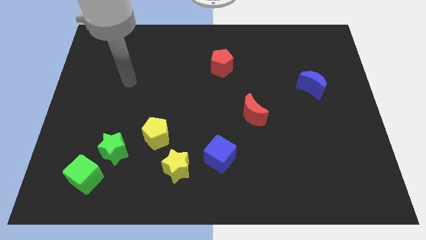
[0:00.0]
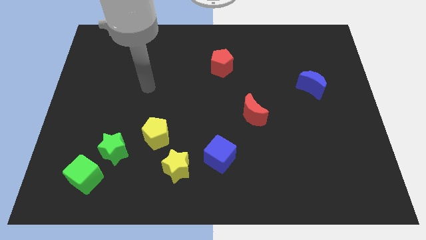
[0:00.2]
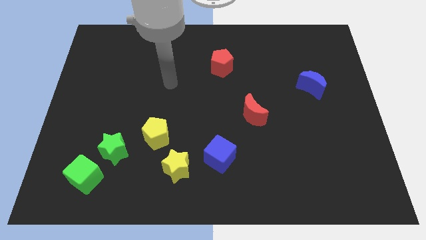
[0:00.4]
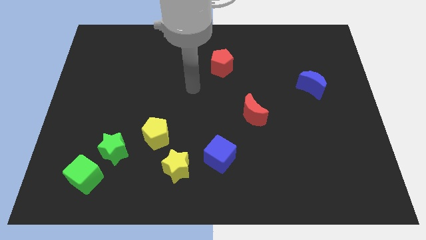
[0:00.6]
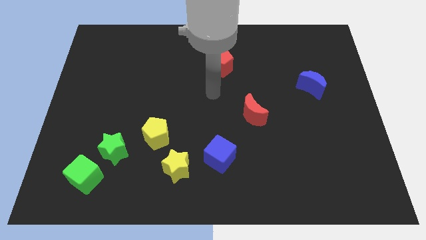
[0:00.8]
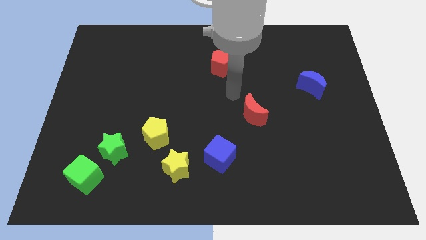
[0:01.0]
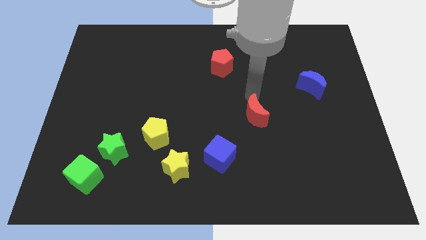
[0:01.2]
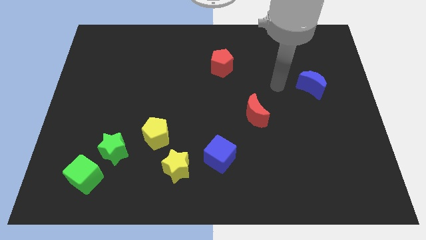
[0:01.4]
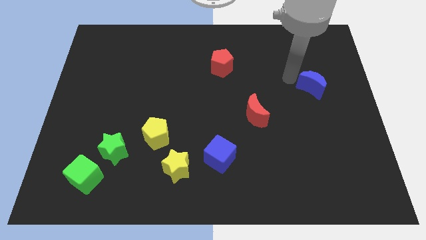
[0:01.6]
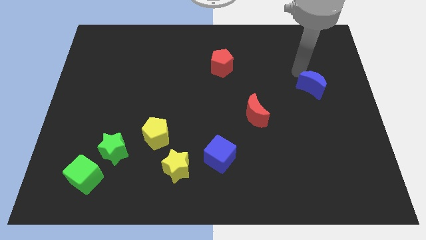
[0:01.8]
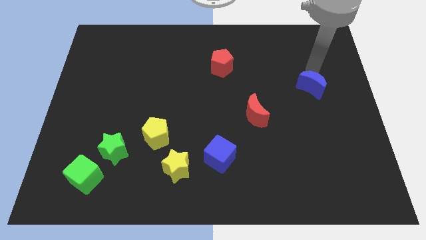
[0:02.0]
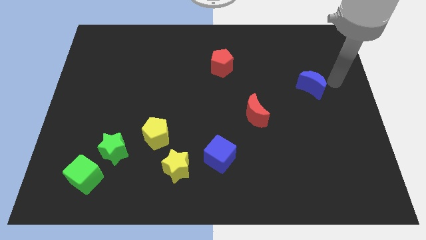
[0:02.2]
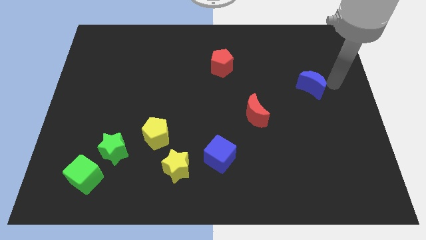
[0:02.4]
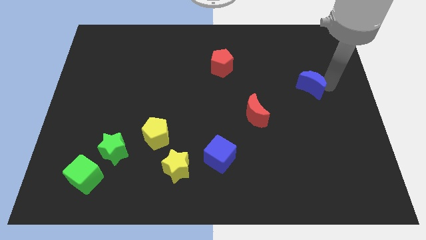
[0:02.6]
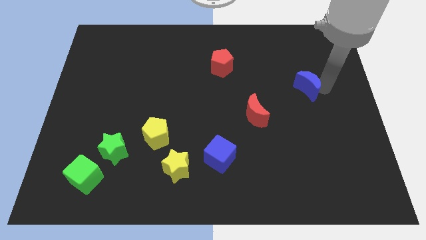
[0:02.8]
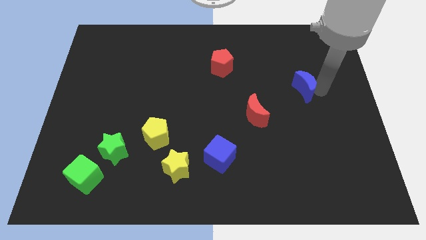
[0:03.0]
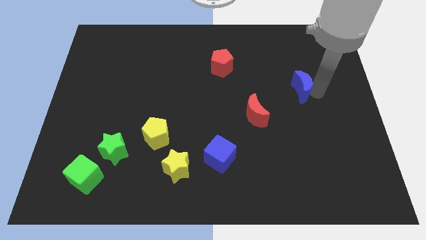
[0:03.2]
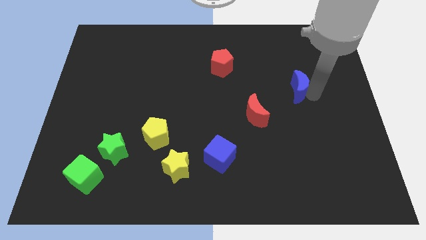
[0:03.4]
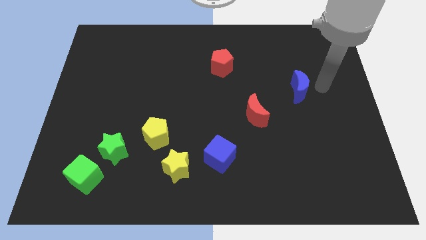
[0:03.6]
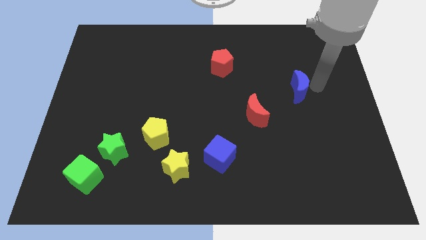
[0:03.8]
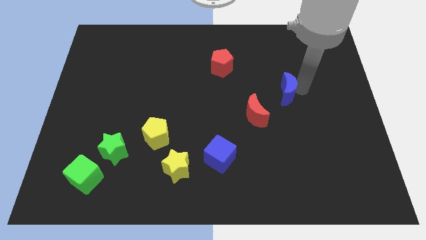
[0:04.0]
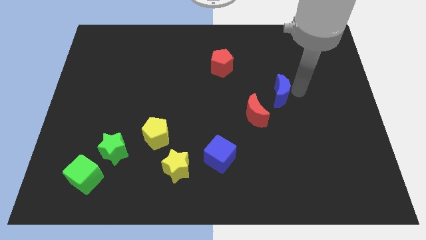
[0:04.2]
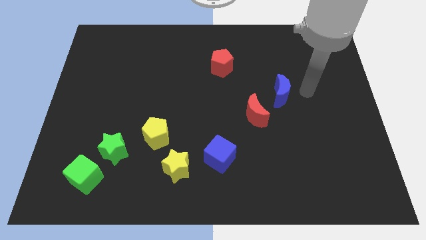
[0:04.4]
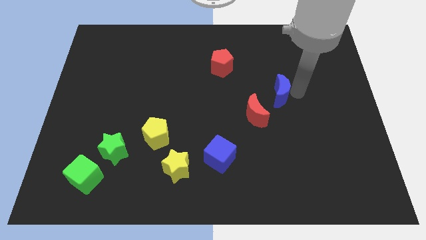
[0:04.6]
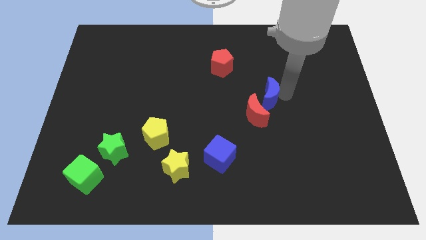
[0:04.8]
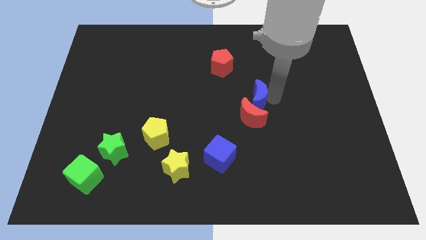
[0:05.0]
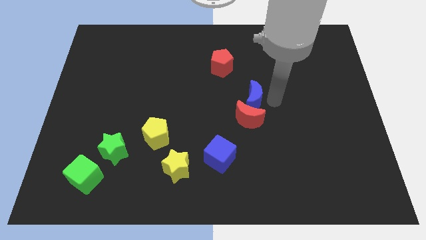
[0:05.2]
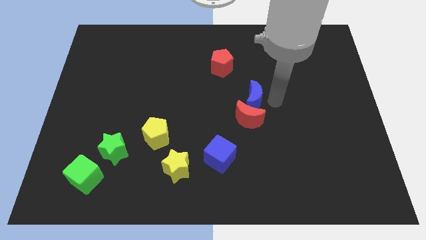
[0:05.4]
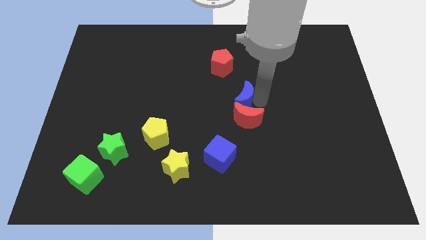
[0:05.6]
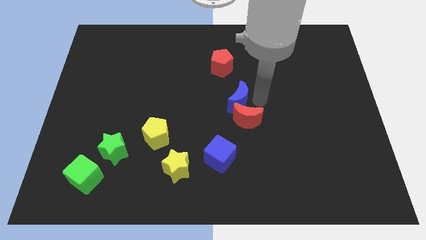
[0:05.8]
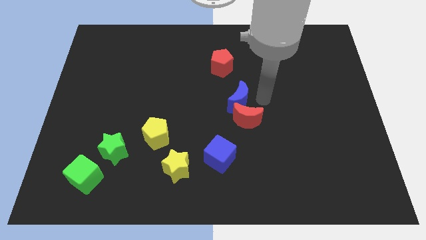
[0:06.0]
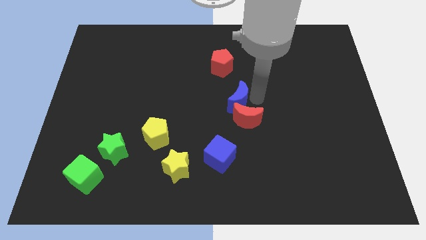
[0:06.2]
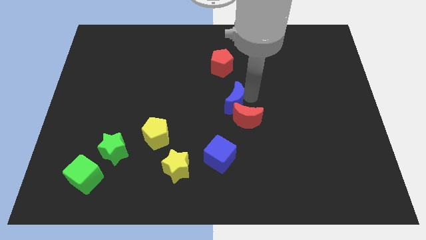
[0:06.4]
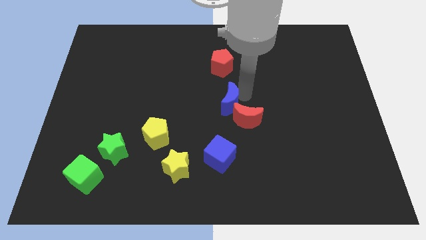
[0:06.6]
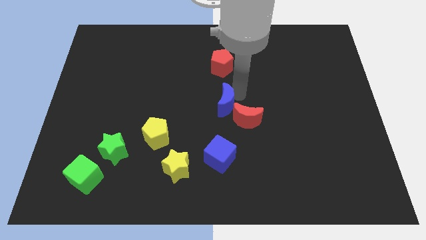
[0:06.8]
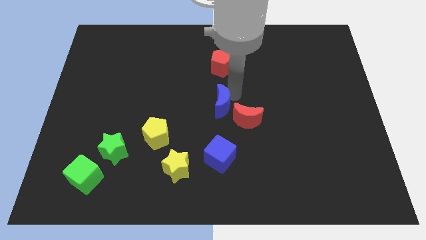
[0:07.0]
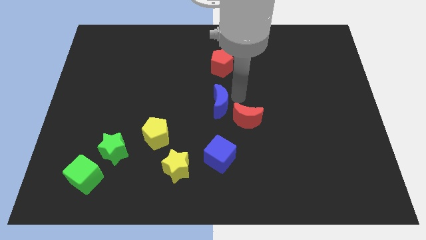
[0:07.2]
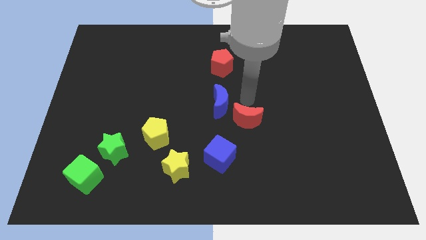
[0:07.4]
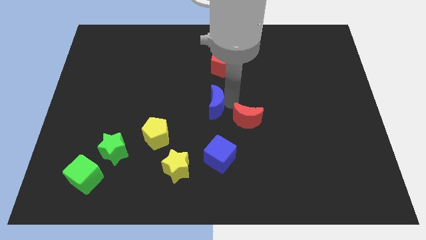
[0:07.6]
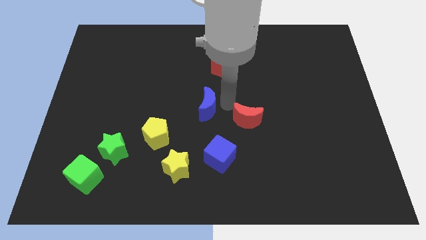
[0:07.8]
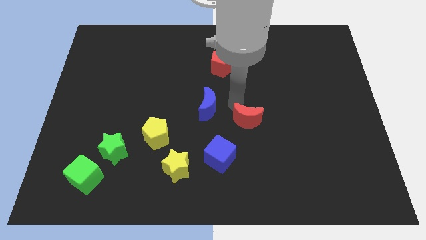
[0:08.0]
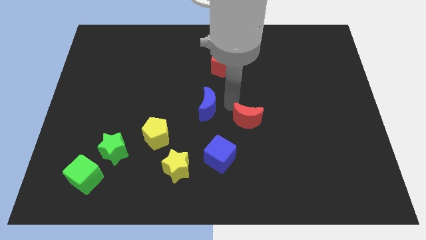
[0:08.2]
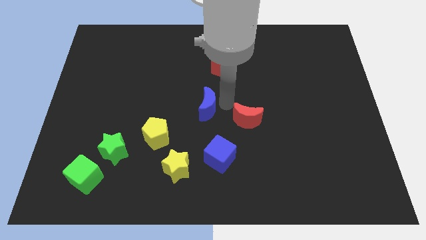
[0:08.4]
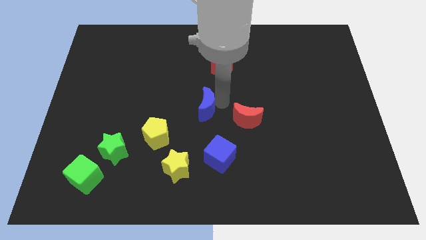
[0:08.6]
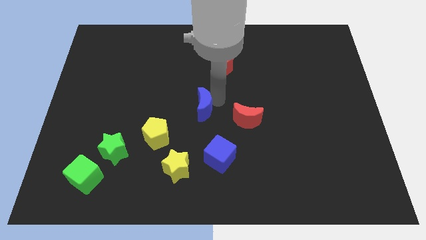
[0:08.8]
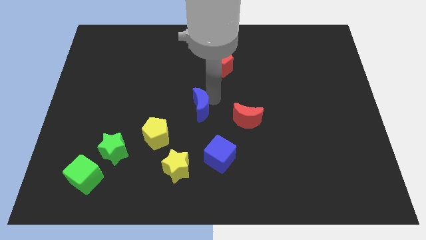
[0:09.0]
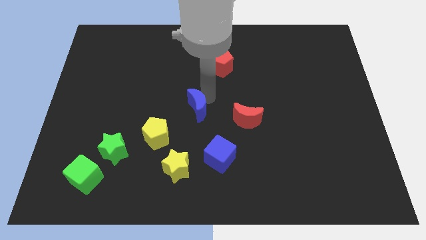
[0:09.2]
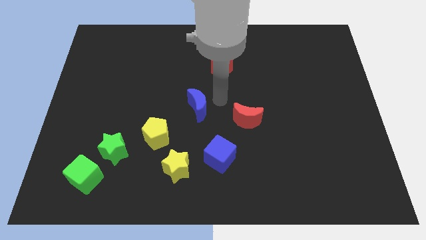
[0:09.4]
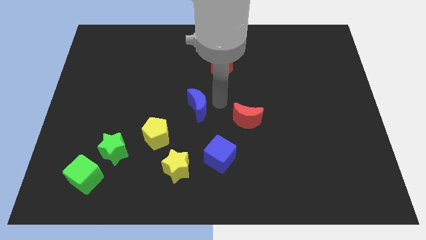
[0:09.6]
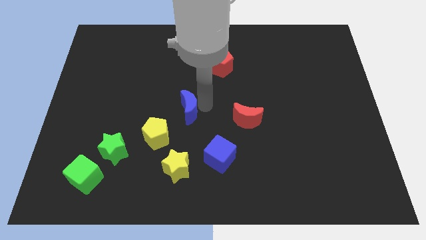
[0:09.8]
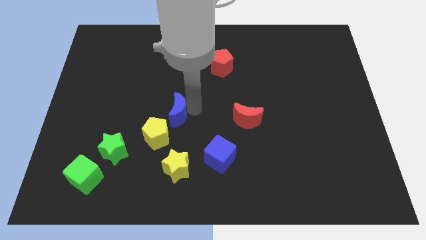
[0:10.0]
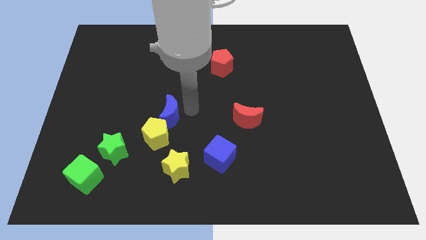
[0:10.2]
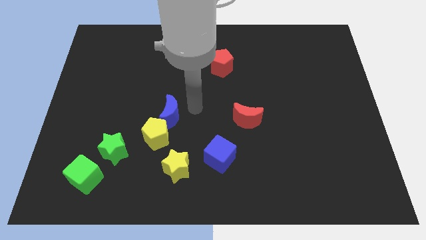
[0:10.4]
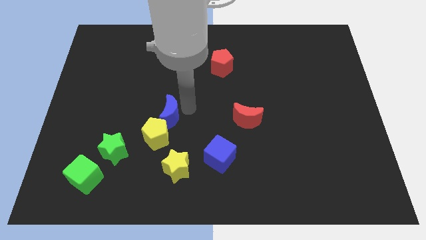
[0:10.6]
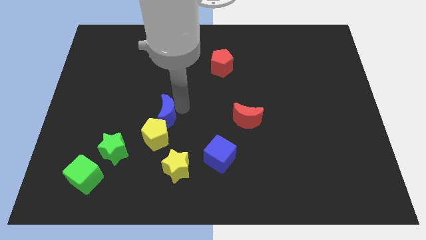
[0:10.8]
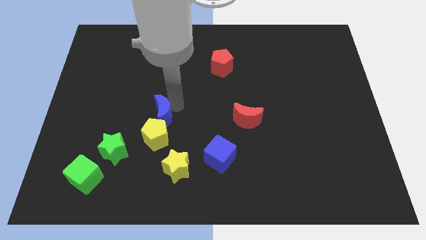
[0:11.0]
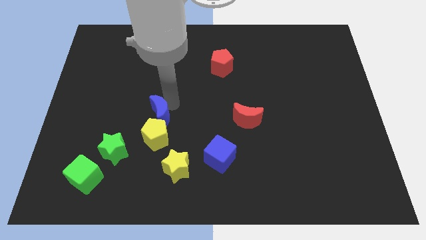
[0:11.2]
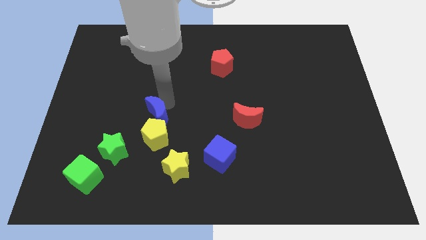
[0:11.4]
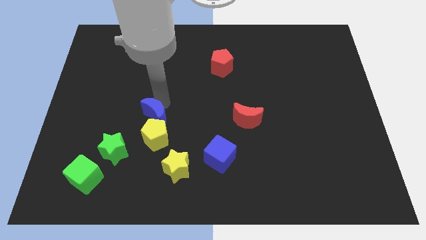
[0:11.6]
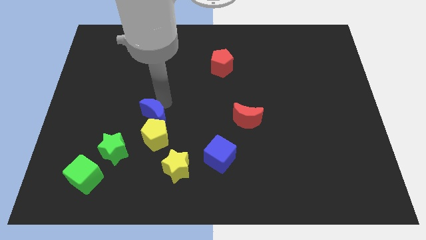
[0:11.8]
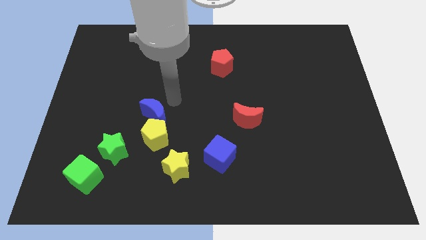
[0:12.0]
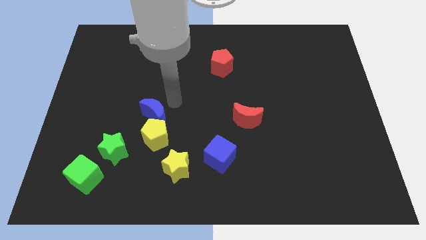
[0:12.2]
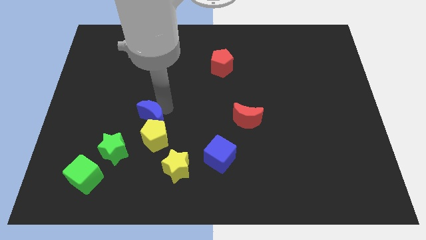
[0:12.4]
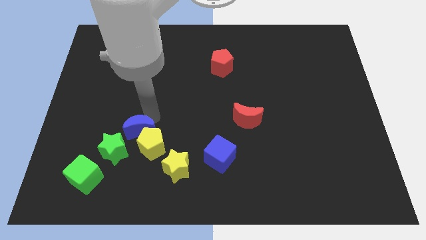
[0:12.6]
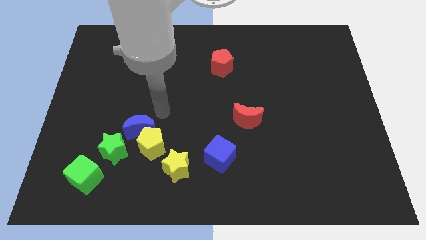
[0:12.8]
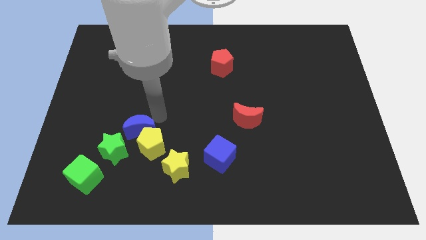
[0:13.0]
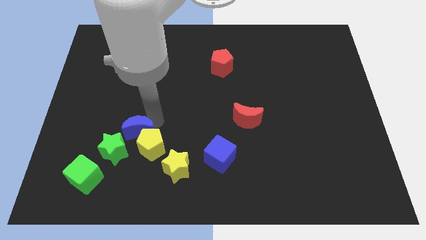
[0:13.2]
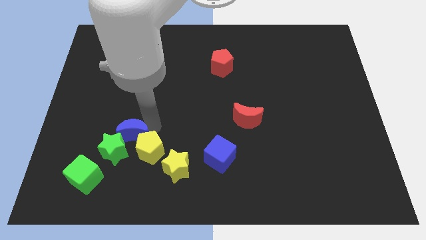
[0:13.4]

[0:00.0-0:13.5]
move the blue moon next to the green star
